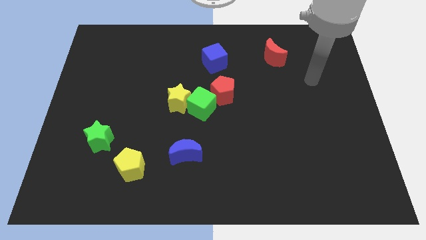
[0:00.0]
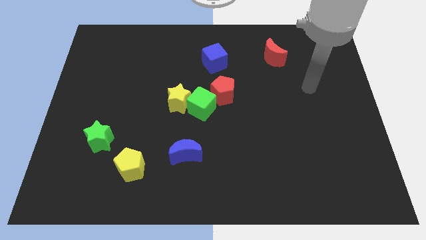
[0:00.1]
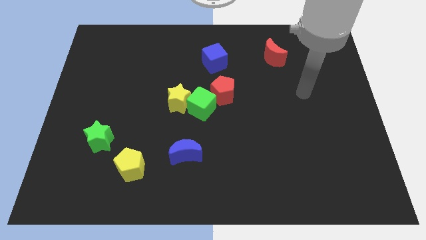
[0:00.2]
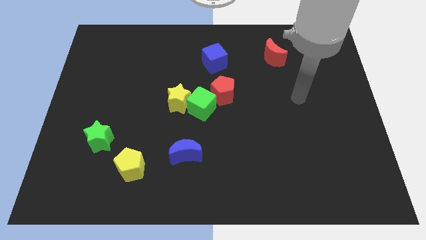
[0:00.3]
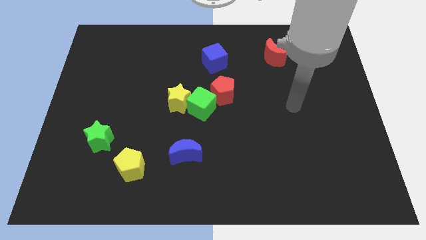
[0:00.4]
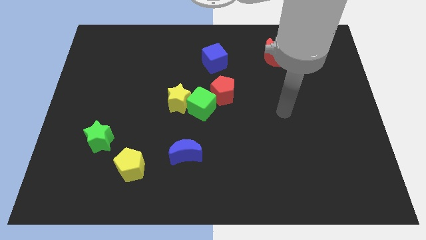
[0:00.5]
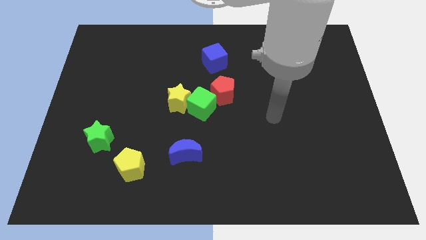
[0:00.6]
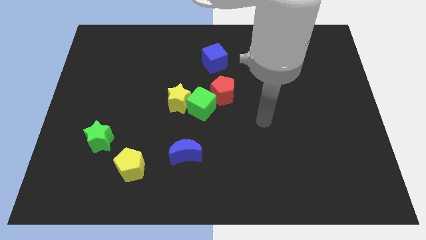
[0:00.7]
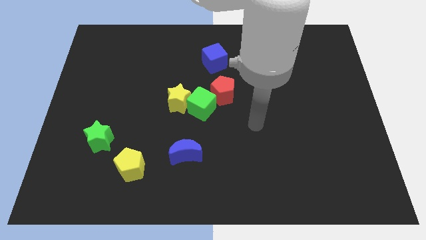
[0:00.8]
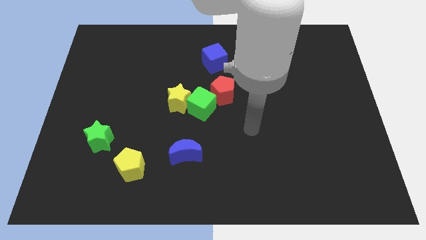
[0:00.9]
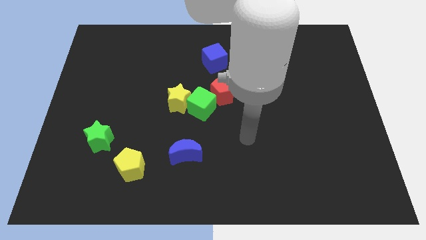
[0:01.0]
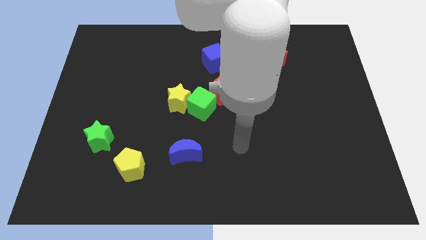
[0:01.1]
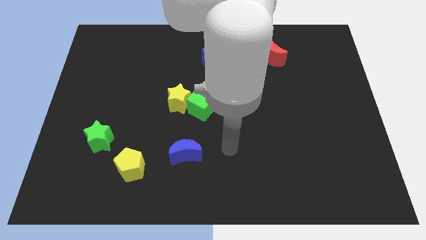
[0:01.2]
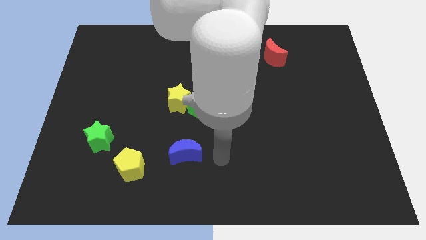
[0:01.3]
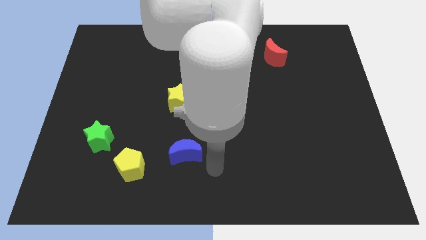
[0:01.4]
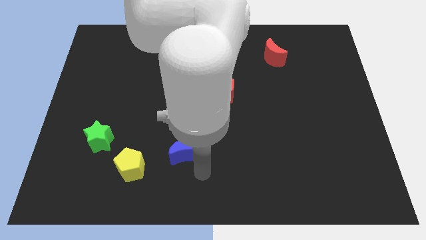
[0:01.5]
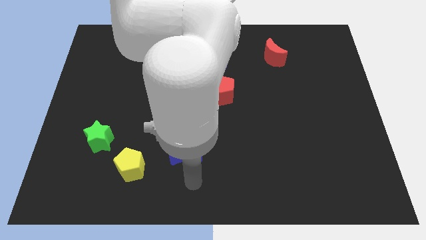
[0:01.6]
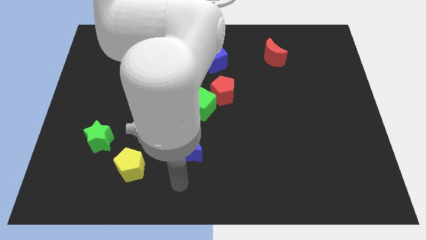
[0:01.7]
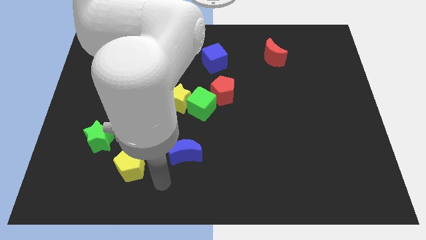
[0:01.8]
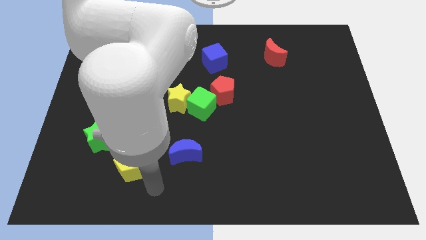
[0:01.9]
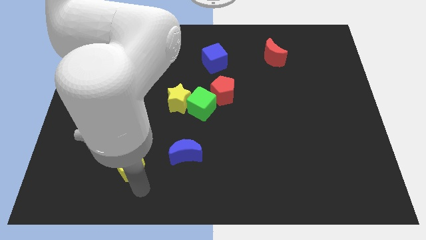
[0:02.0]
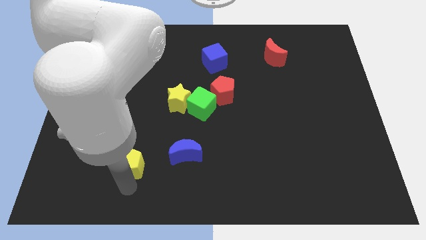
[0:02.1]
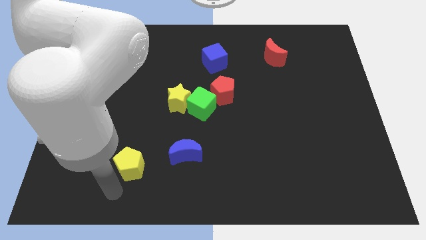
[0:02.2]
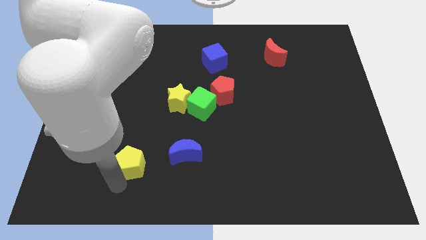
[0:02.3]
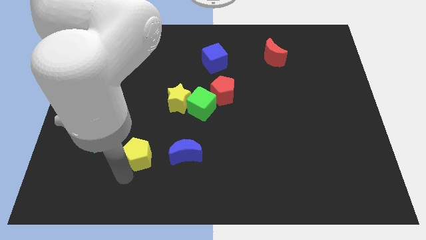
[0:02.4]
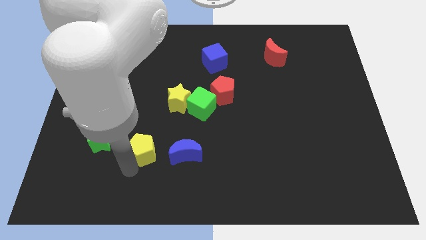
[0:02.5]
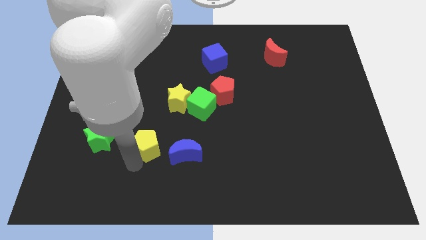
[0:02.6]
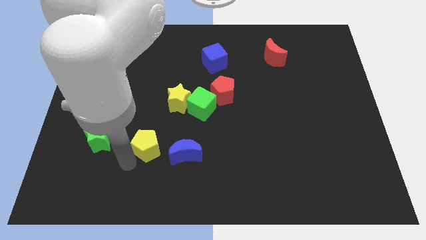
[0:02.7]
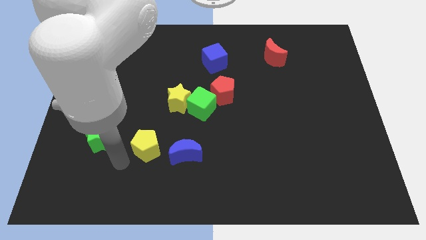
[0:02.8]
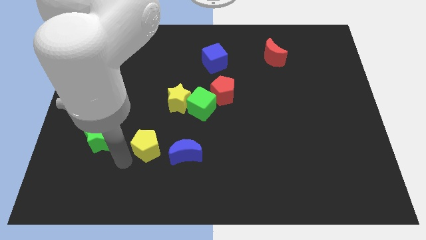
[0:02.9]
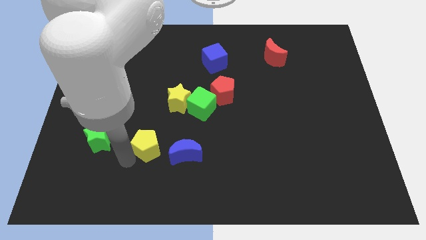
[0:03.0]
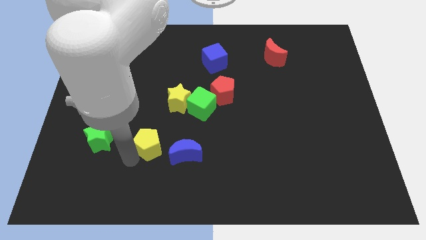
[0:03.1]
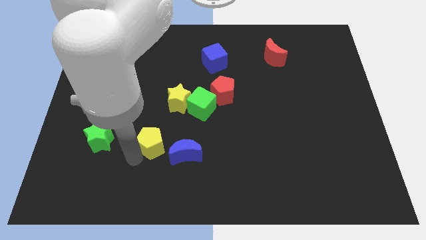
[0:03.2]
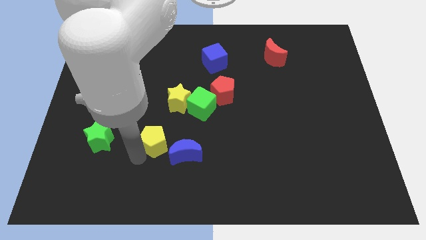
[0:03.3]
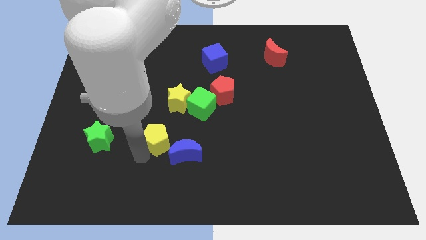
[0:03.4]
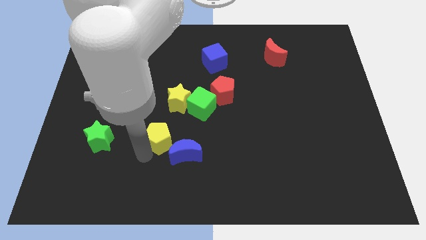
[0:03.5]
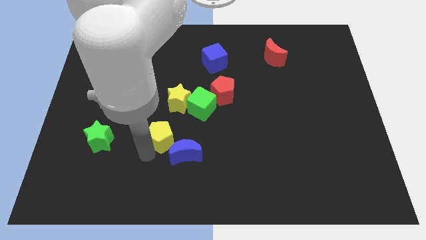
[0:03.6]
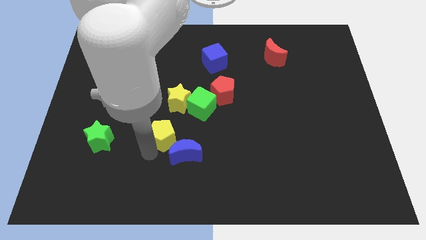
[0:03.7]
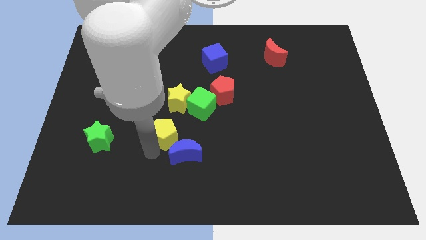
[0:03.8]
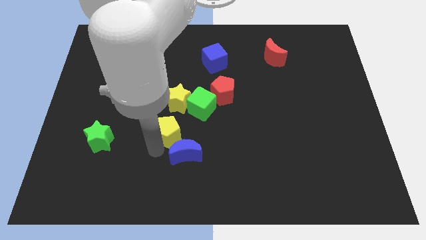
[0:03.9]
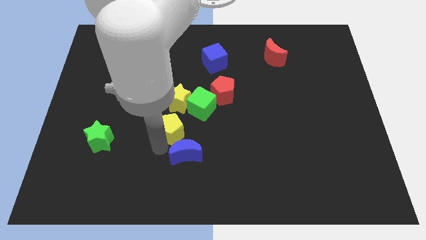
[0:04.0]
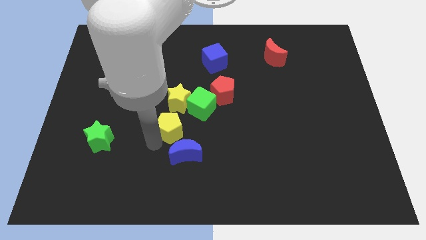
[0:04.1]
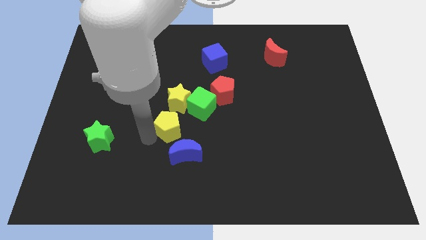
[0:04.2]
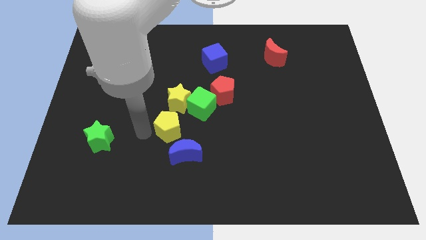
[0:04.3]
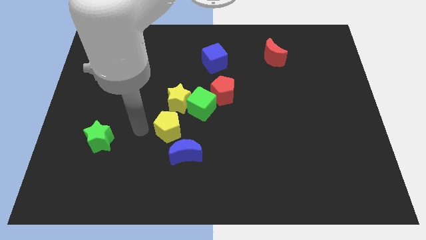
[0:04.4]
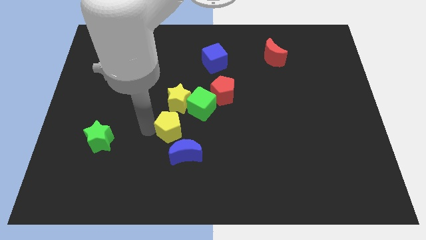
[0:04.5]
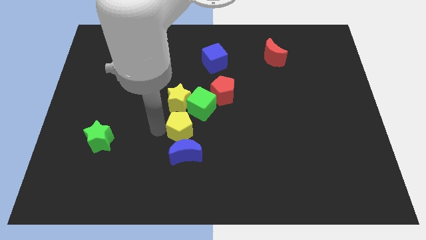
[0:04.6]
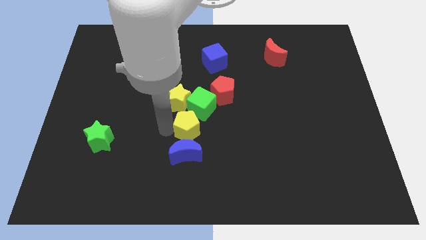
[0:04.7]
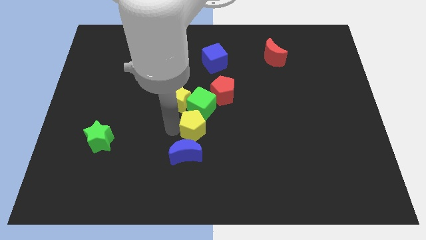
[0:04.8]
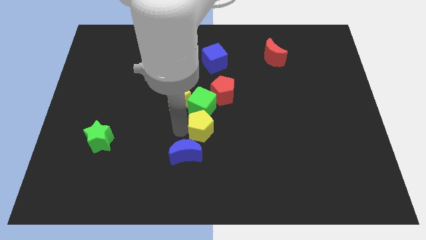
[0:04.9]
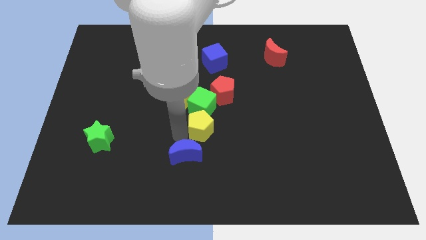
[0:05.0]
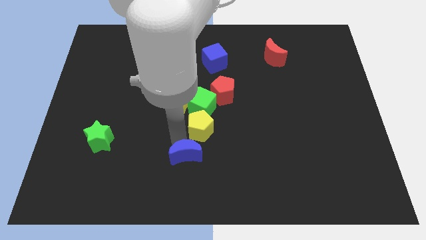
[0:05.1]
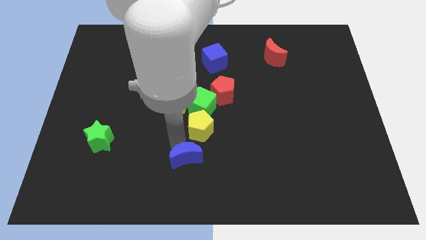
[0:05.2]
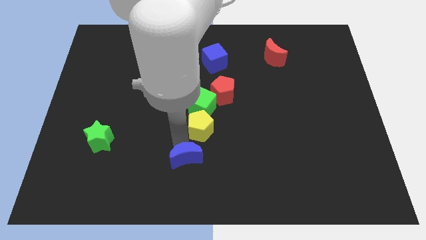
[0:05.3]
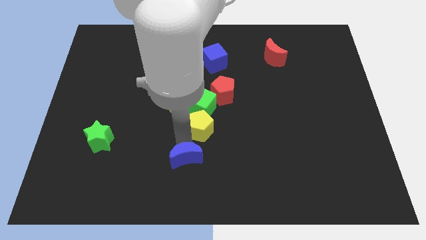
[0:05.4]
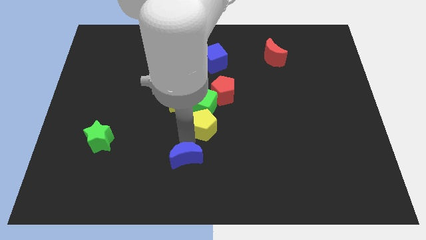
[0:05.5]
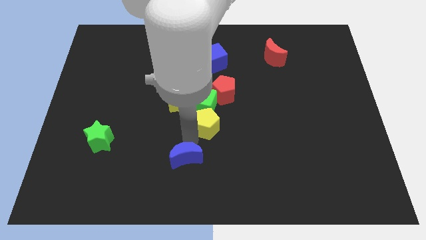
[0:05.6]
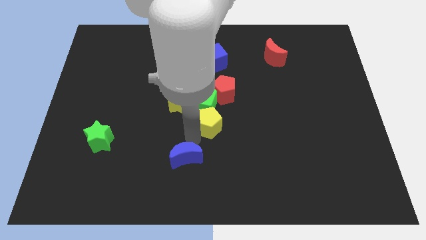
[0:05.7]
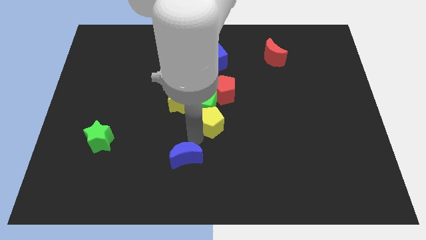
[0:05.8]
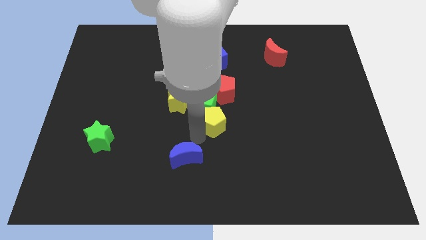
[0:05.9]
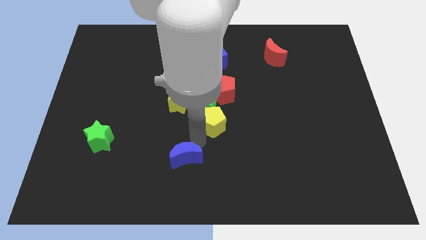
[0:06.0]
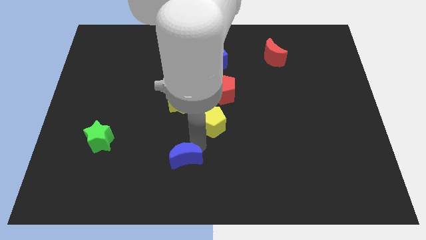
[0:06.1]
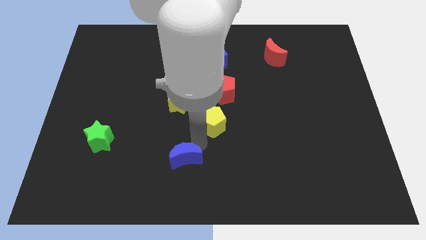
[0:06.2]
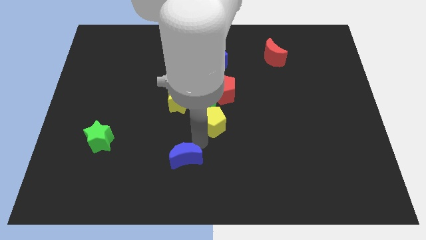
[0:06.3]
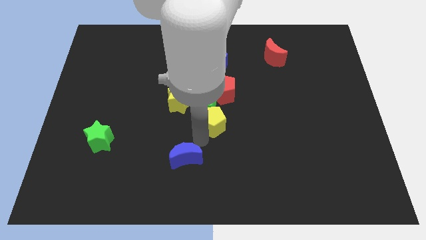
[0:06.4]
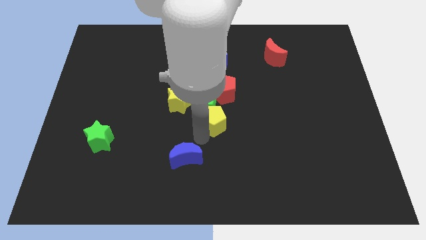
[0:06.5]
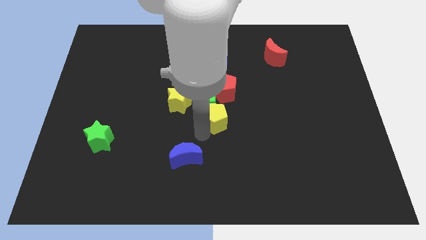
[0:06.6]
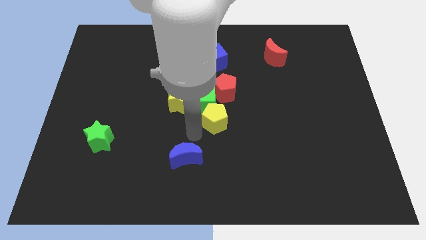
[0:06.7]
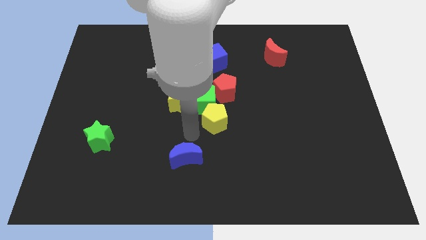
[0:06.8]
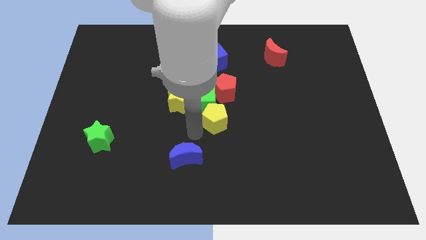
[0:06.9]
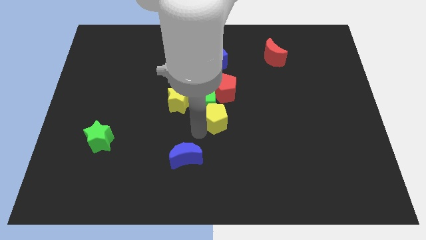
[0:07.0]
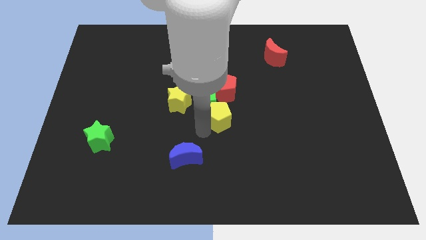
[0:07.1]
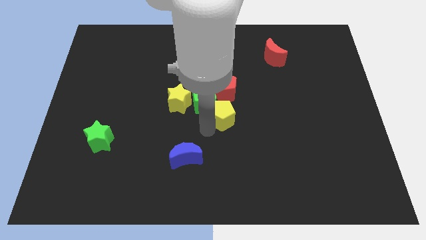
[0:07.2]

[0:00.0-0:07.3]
slide the yellow pentagon to the right side of the green cube
